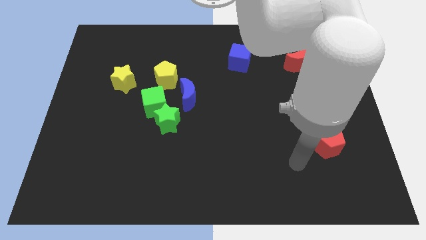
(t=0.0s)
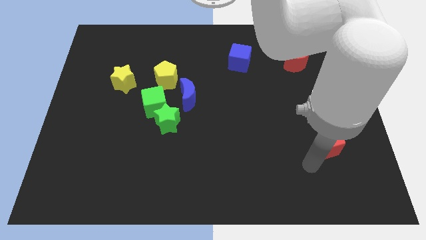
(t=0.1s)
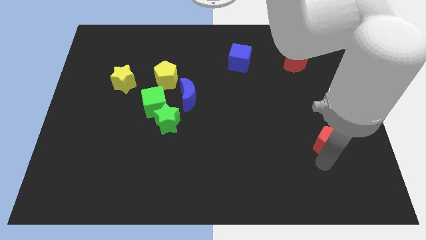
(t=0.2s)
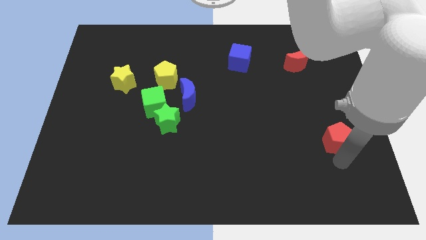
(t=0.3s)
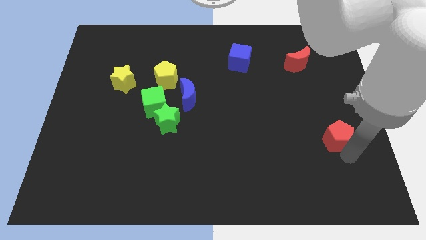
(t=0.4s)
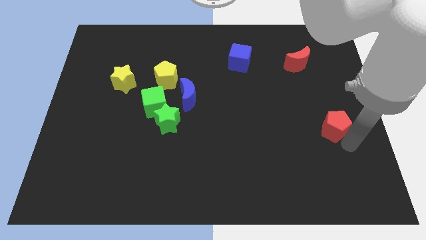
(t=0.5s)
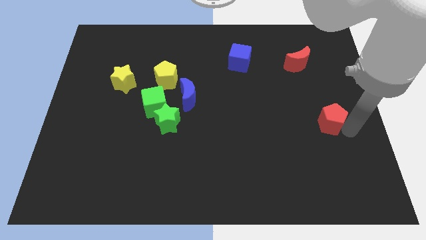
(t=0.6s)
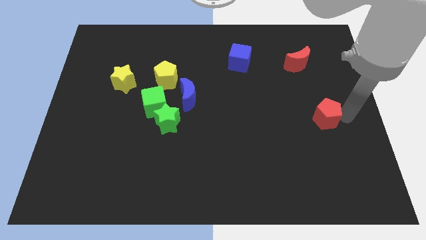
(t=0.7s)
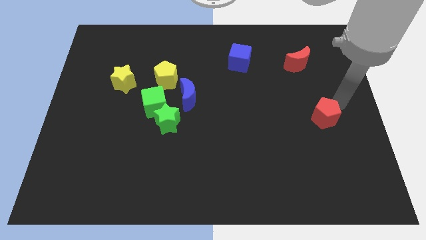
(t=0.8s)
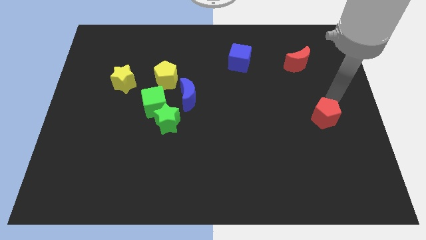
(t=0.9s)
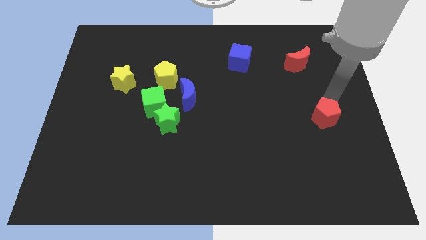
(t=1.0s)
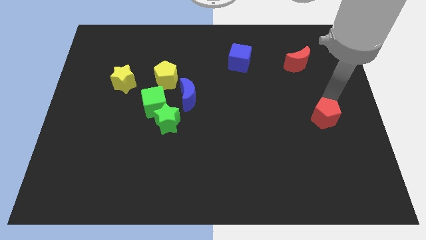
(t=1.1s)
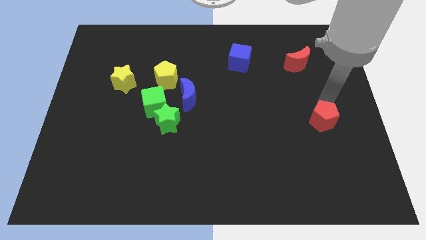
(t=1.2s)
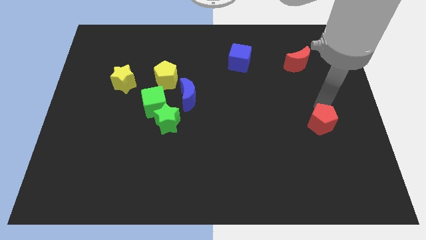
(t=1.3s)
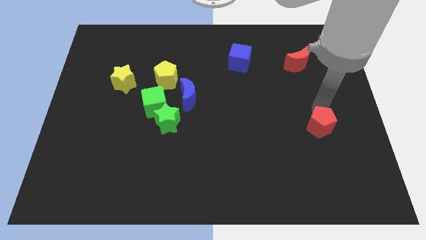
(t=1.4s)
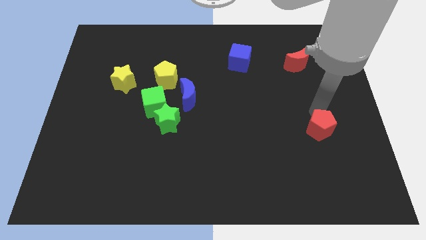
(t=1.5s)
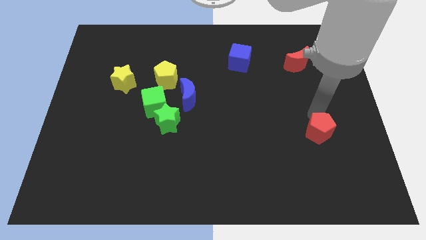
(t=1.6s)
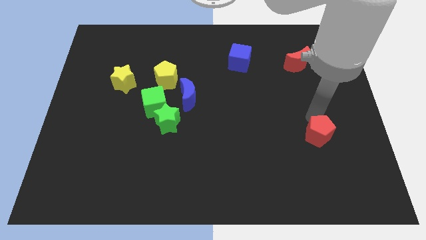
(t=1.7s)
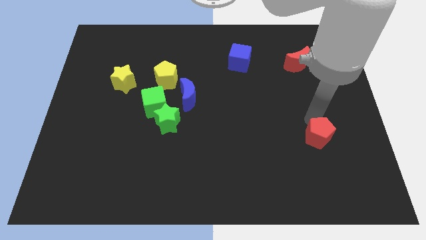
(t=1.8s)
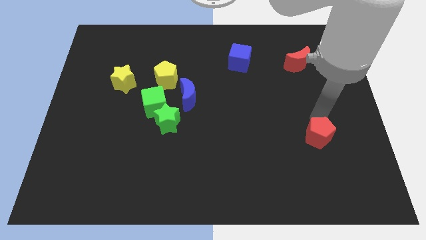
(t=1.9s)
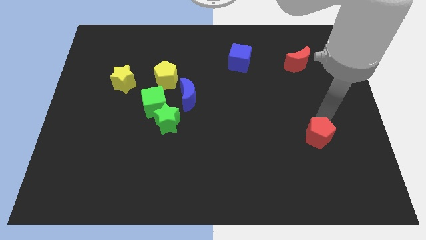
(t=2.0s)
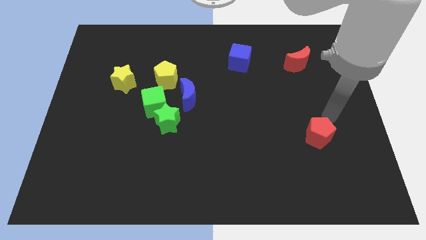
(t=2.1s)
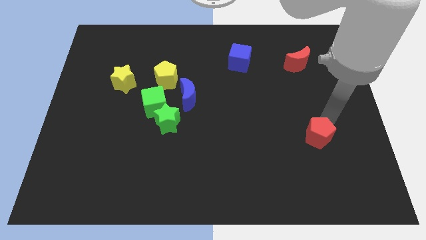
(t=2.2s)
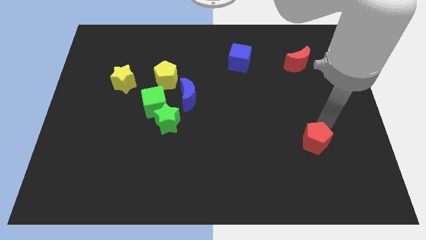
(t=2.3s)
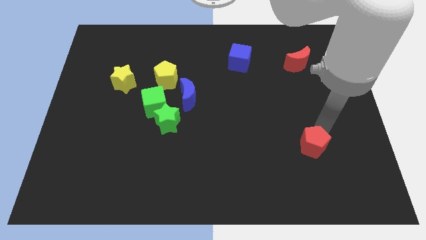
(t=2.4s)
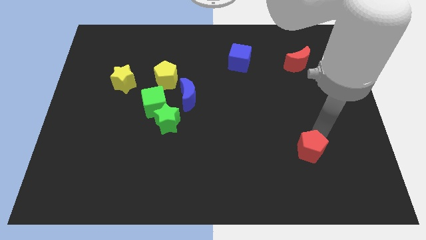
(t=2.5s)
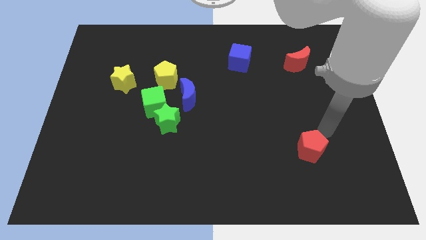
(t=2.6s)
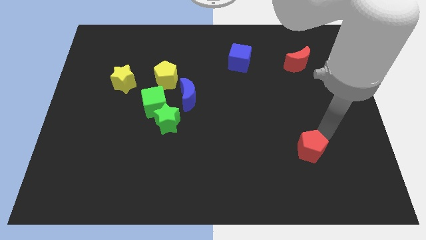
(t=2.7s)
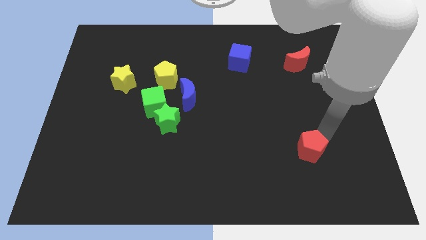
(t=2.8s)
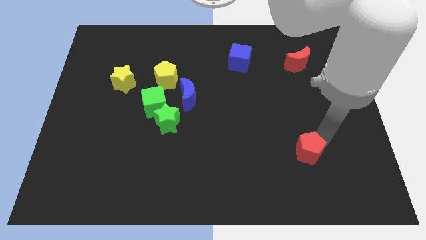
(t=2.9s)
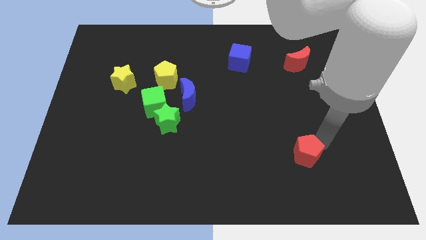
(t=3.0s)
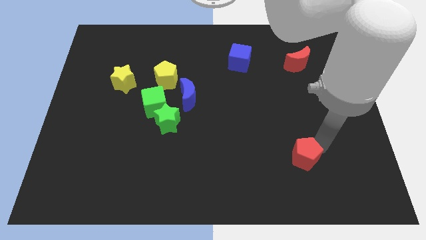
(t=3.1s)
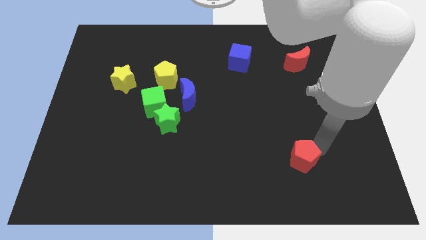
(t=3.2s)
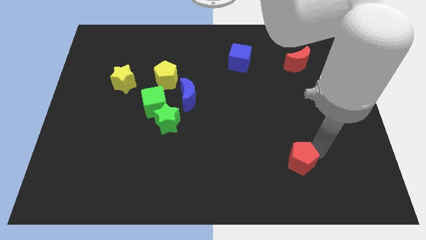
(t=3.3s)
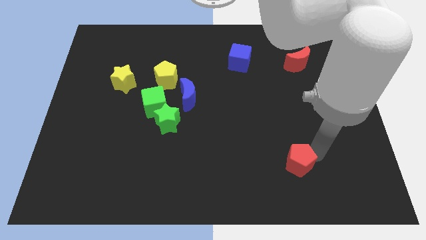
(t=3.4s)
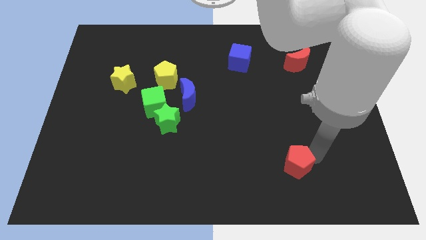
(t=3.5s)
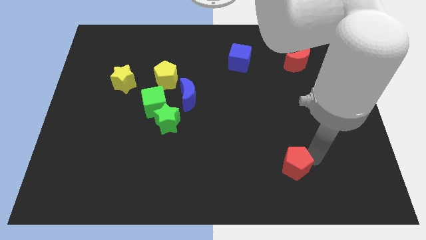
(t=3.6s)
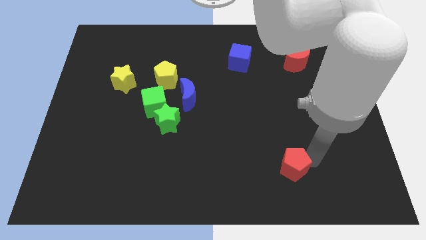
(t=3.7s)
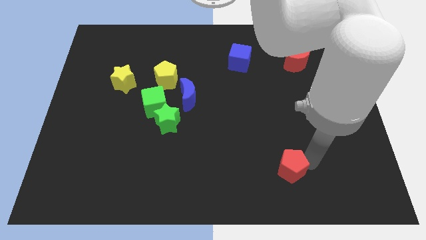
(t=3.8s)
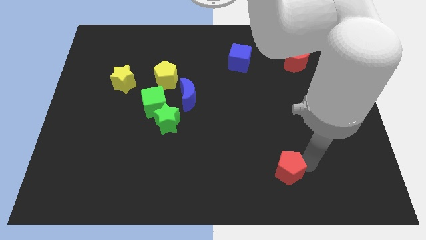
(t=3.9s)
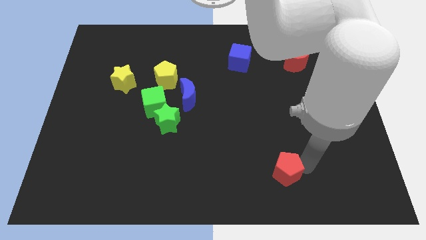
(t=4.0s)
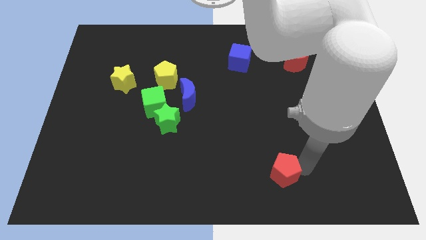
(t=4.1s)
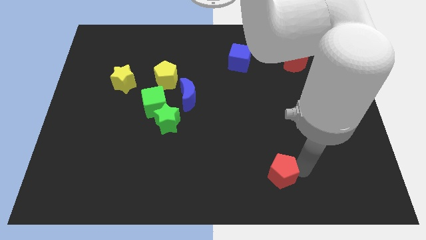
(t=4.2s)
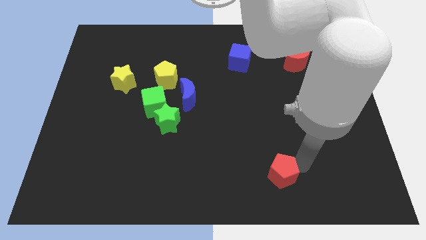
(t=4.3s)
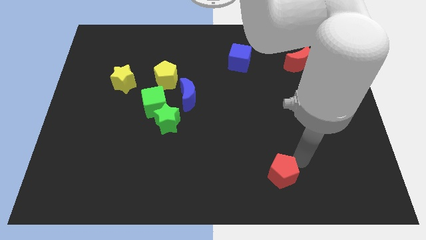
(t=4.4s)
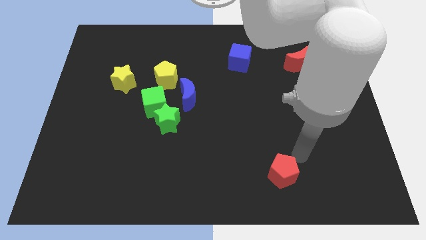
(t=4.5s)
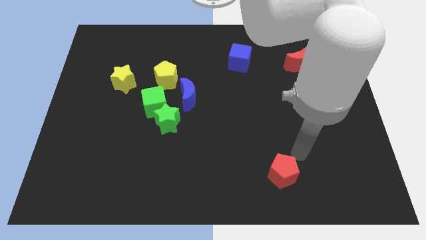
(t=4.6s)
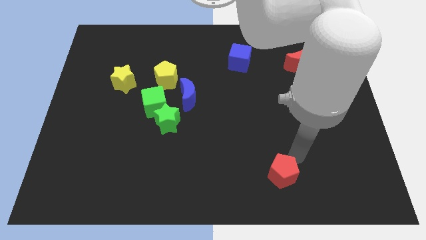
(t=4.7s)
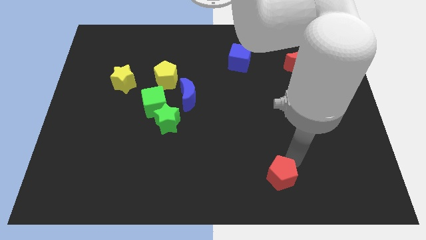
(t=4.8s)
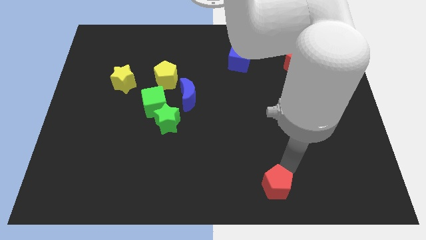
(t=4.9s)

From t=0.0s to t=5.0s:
slide the red pentagon to the bottom

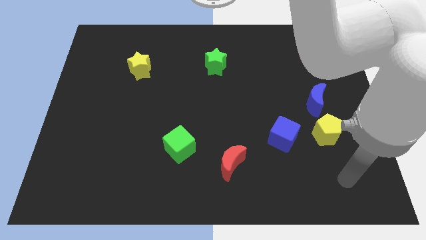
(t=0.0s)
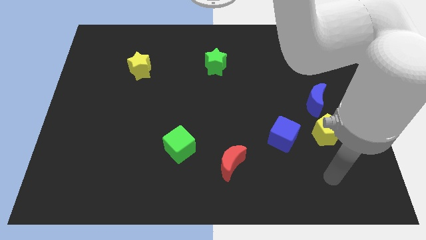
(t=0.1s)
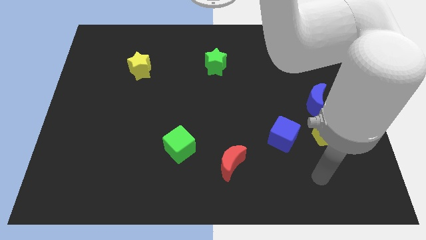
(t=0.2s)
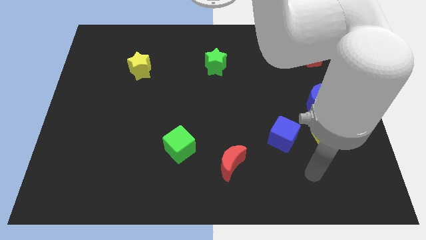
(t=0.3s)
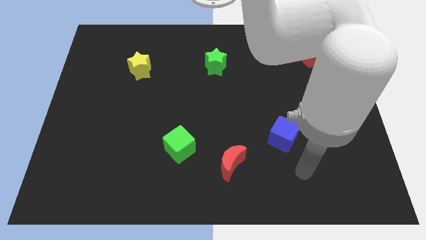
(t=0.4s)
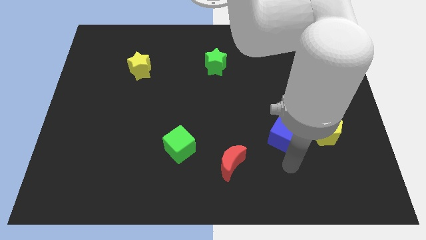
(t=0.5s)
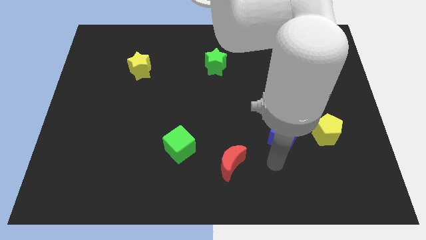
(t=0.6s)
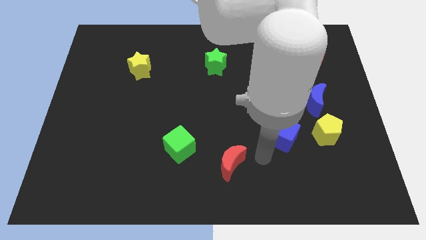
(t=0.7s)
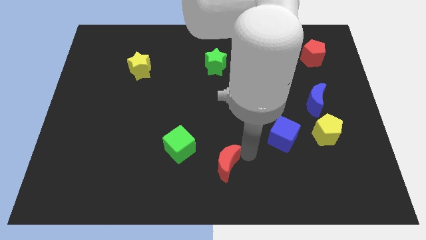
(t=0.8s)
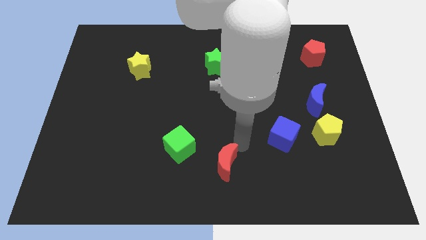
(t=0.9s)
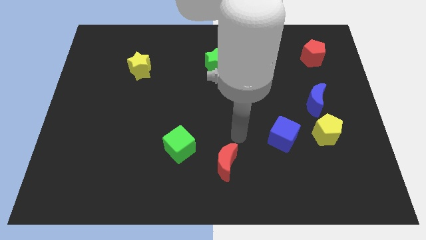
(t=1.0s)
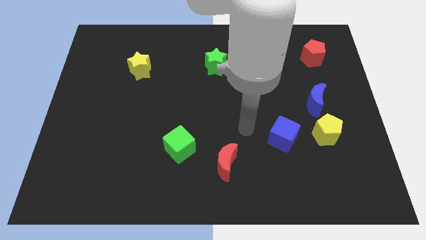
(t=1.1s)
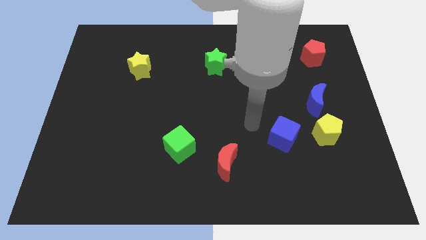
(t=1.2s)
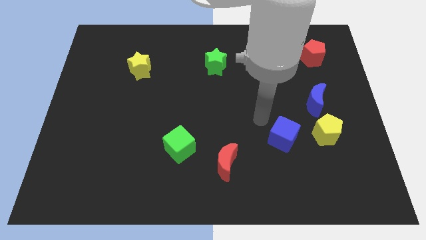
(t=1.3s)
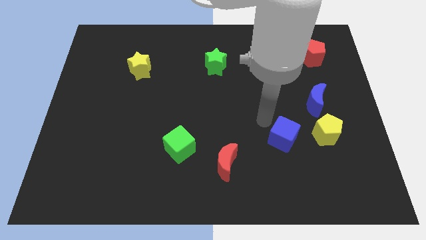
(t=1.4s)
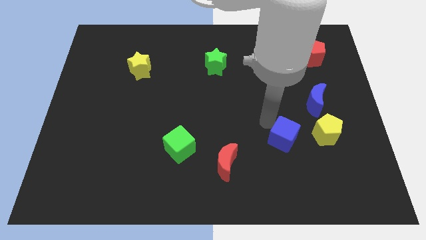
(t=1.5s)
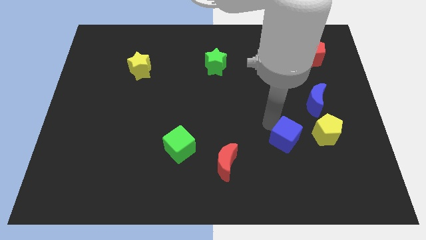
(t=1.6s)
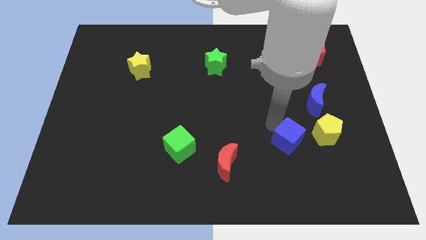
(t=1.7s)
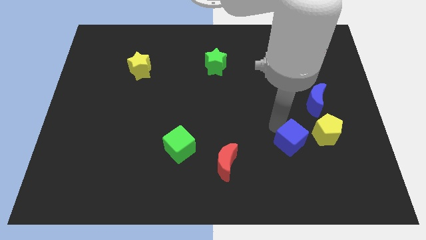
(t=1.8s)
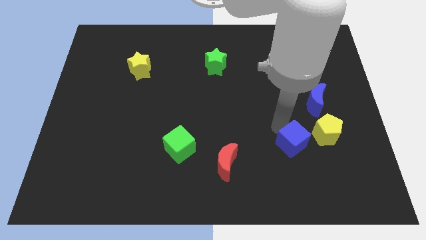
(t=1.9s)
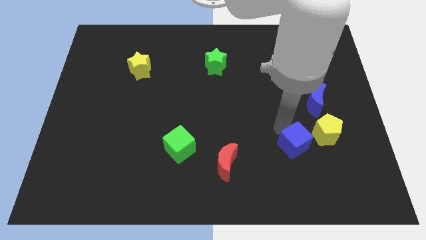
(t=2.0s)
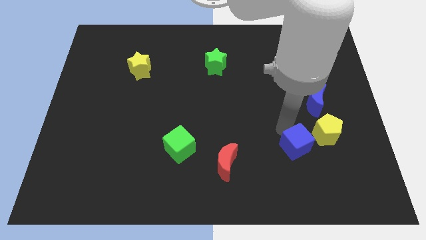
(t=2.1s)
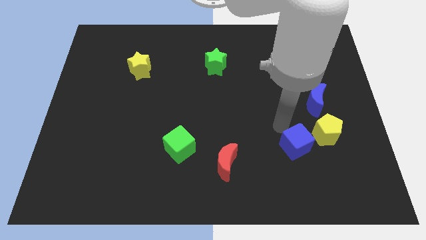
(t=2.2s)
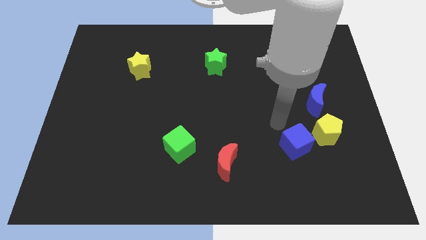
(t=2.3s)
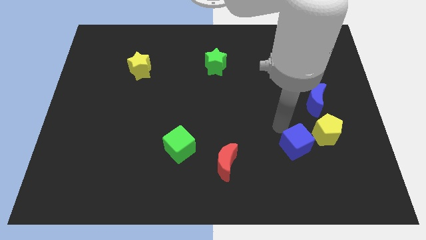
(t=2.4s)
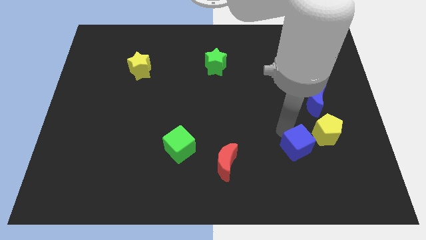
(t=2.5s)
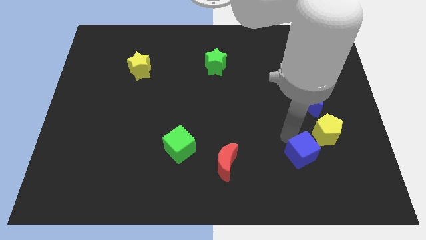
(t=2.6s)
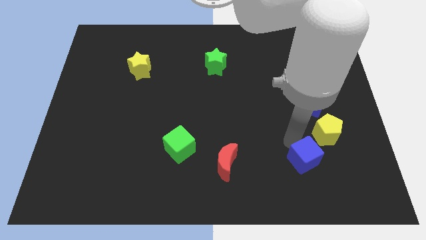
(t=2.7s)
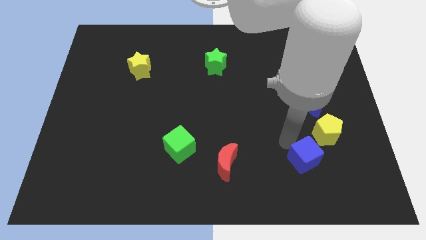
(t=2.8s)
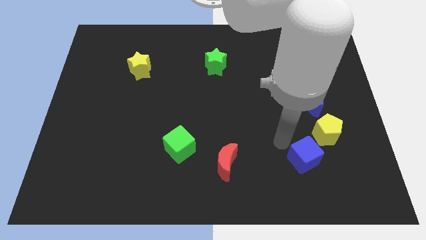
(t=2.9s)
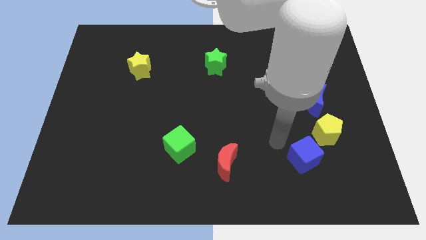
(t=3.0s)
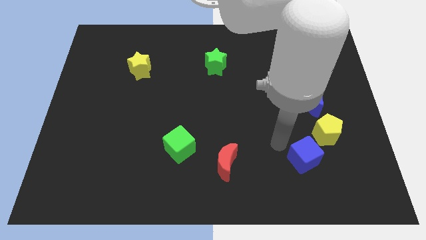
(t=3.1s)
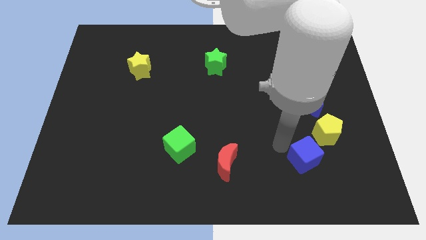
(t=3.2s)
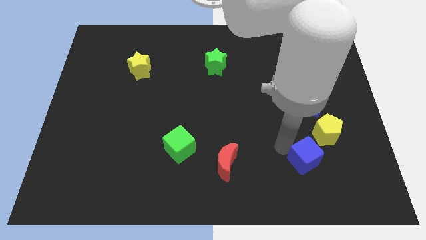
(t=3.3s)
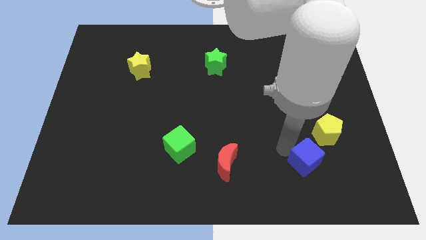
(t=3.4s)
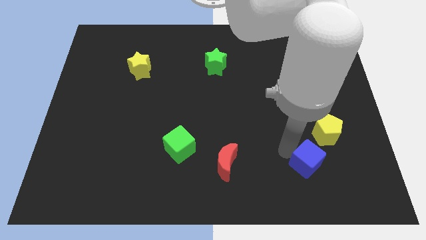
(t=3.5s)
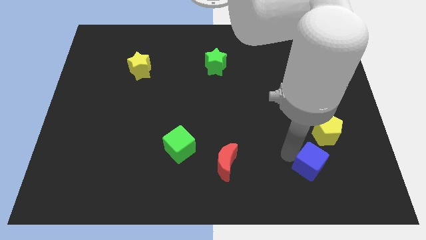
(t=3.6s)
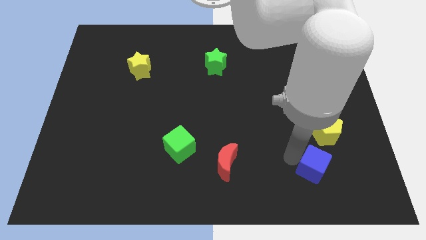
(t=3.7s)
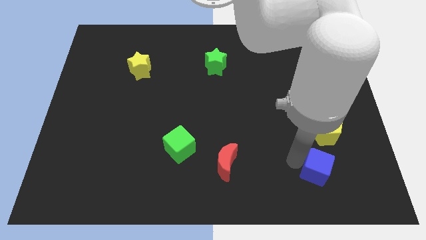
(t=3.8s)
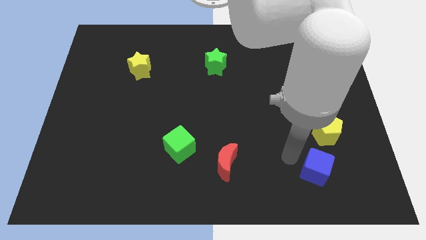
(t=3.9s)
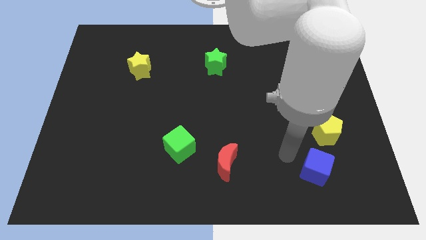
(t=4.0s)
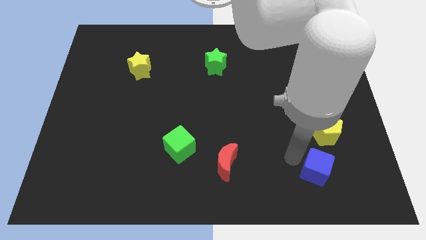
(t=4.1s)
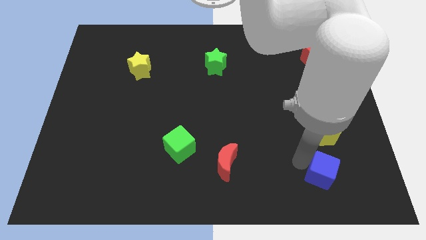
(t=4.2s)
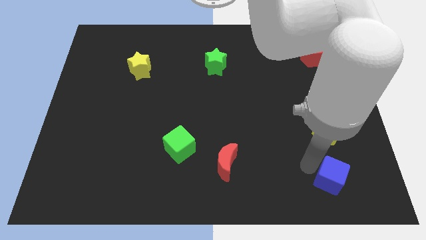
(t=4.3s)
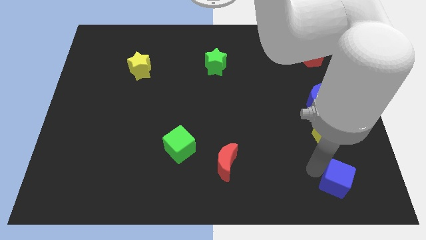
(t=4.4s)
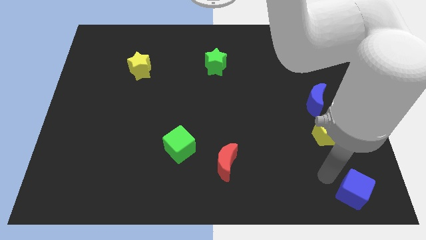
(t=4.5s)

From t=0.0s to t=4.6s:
slide the blue cube to the lower right corner
